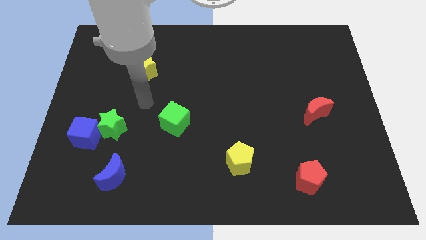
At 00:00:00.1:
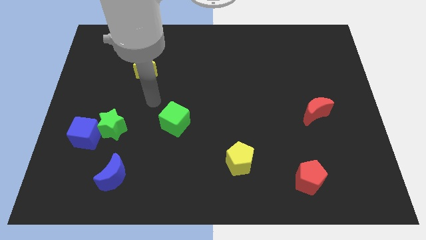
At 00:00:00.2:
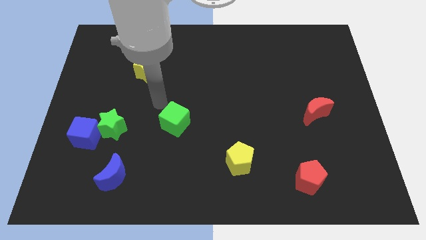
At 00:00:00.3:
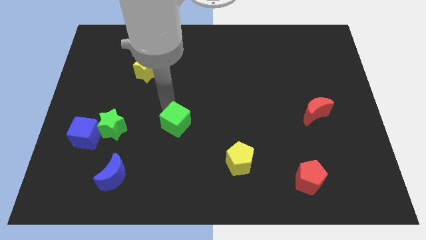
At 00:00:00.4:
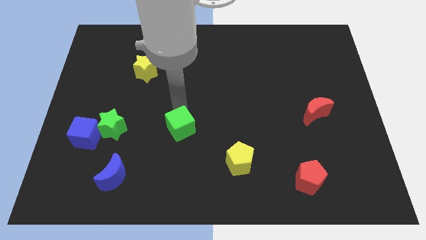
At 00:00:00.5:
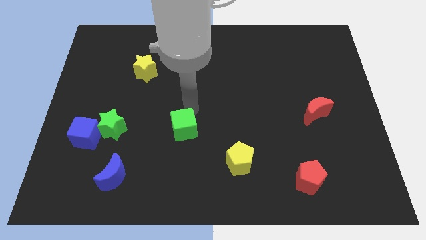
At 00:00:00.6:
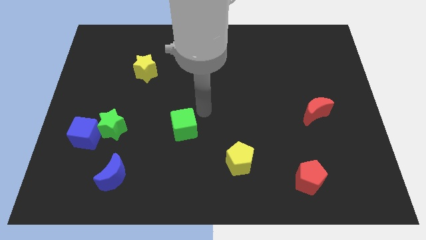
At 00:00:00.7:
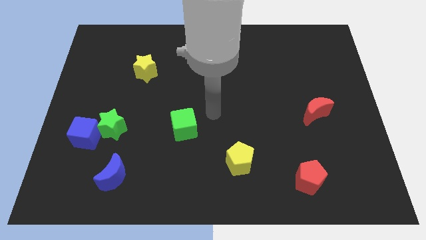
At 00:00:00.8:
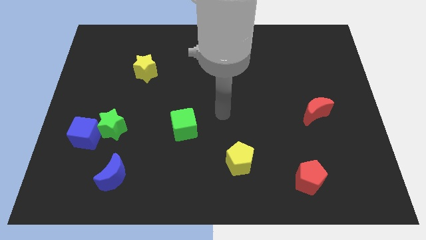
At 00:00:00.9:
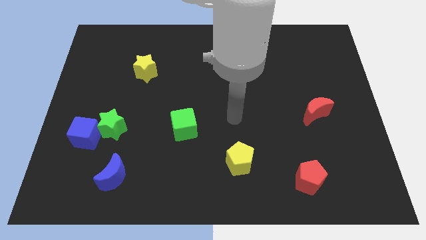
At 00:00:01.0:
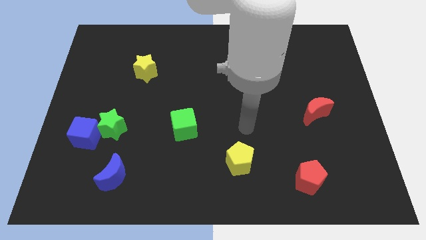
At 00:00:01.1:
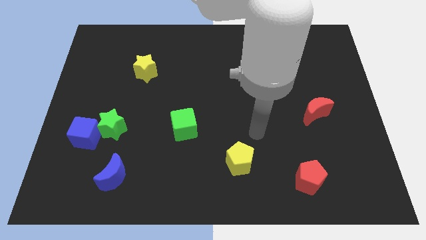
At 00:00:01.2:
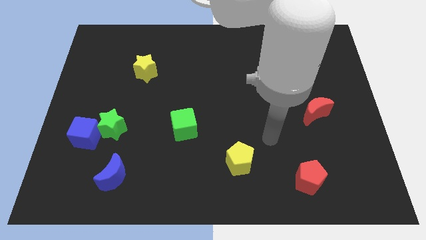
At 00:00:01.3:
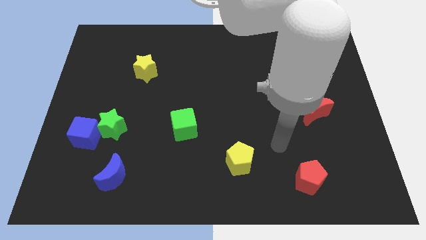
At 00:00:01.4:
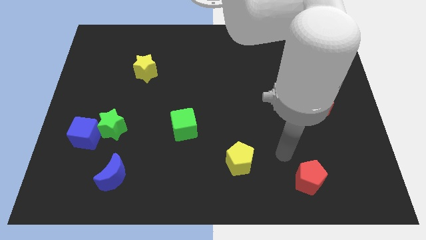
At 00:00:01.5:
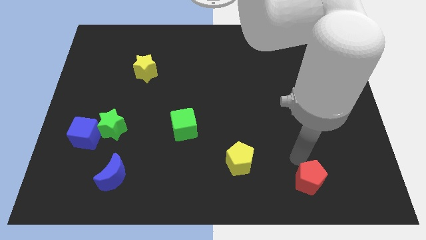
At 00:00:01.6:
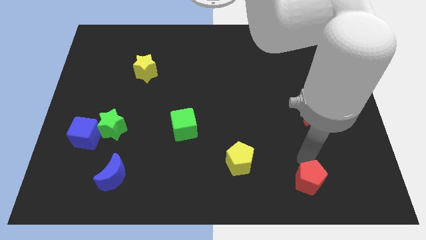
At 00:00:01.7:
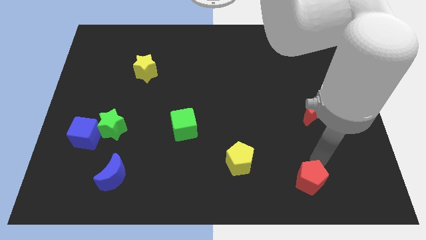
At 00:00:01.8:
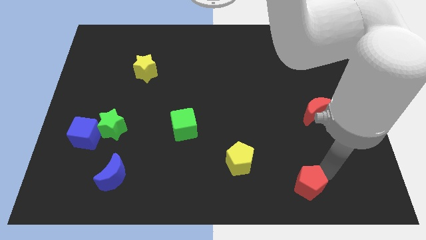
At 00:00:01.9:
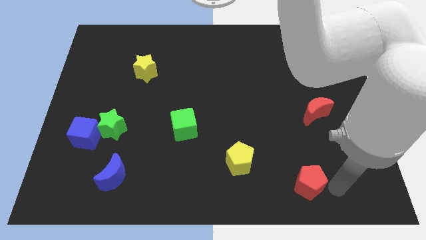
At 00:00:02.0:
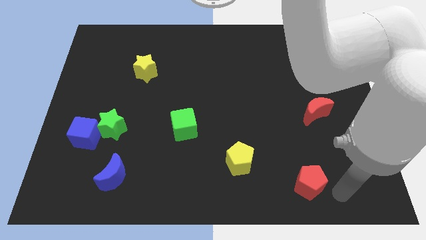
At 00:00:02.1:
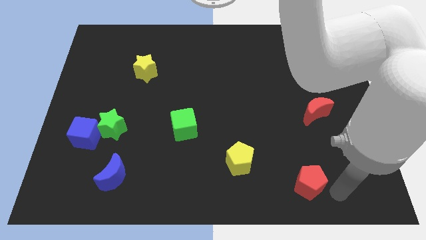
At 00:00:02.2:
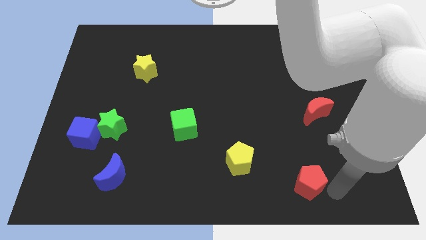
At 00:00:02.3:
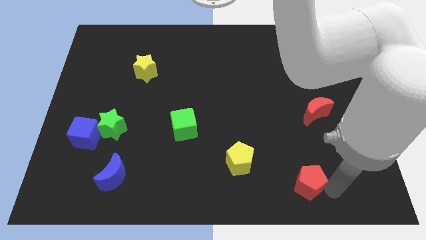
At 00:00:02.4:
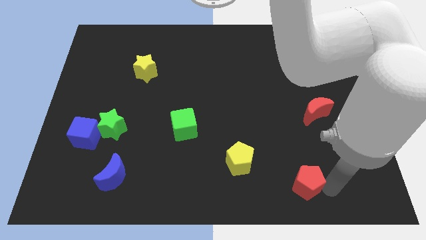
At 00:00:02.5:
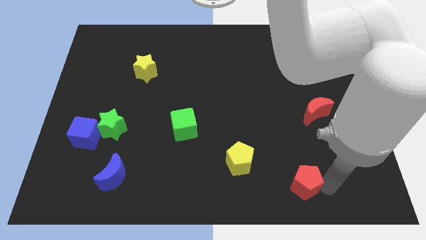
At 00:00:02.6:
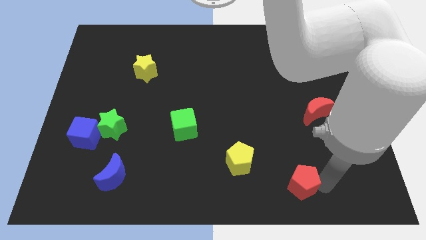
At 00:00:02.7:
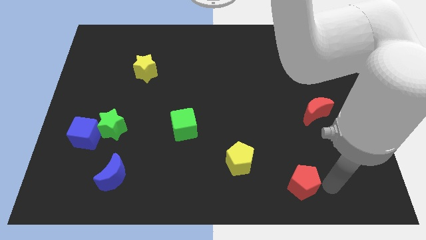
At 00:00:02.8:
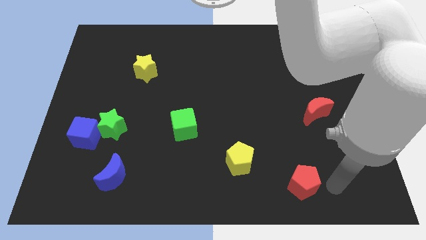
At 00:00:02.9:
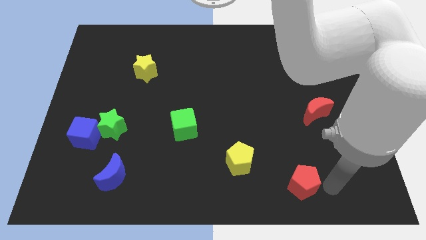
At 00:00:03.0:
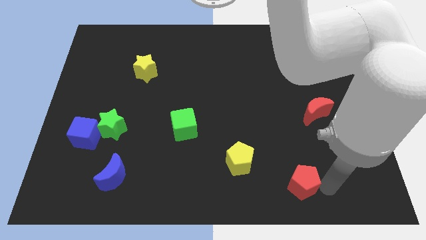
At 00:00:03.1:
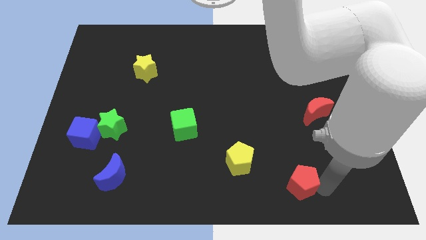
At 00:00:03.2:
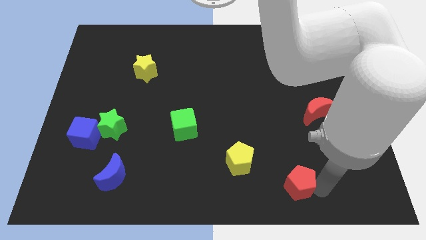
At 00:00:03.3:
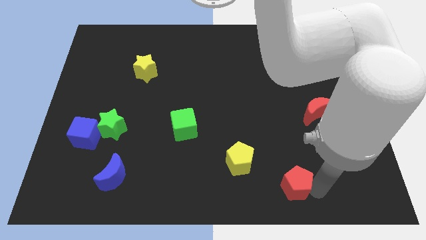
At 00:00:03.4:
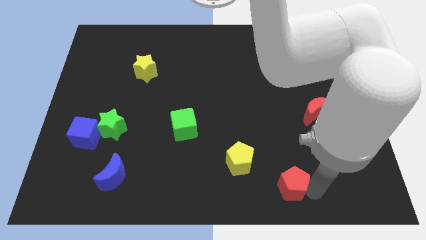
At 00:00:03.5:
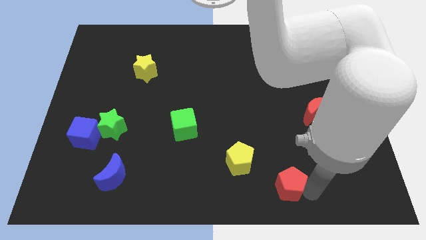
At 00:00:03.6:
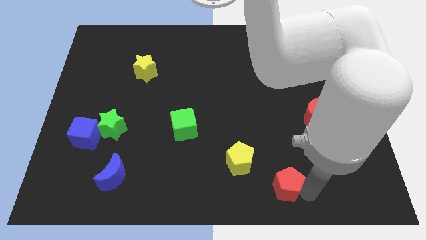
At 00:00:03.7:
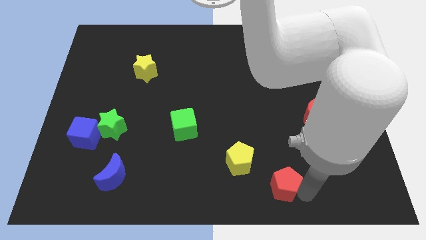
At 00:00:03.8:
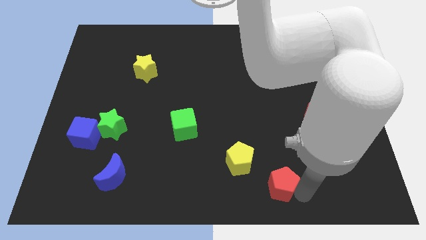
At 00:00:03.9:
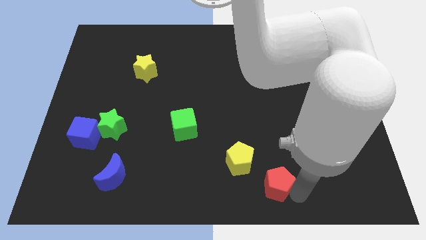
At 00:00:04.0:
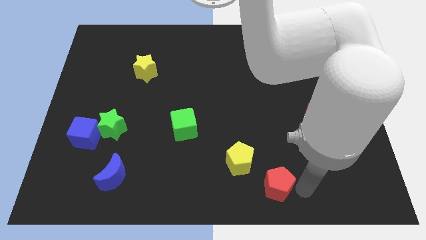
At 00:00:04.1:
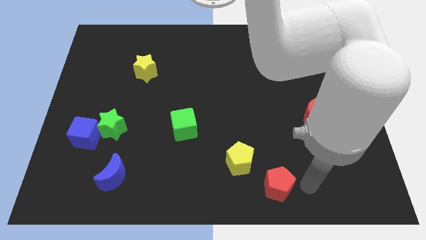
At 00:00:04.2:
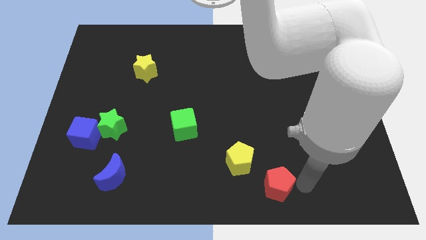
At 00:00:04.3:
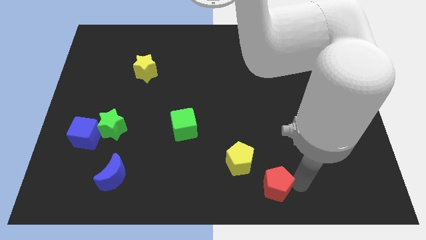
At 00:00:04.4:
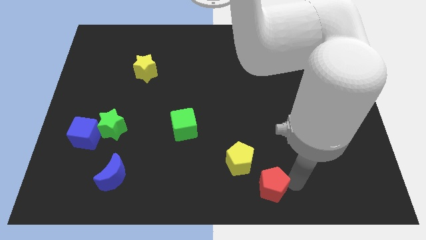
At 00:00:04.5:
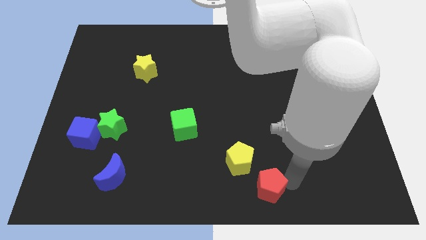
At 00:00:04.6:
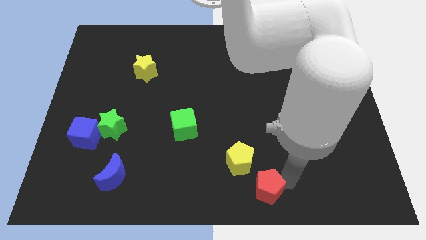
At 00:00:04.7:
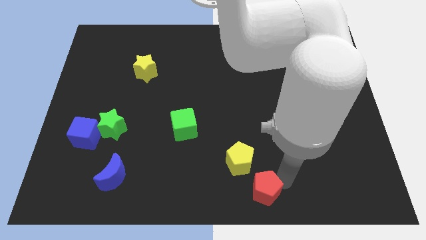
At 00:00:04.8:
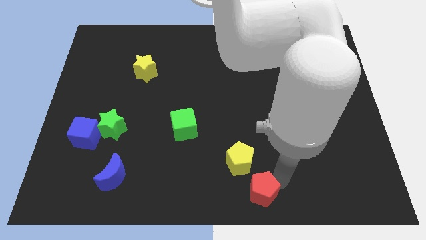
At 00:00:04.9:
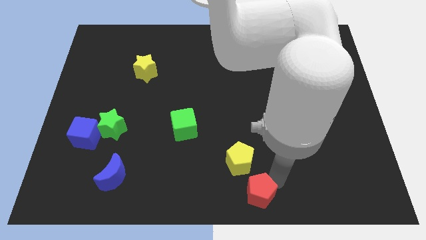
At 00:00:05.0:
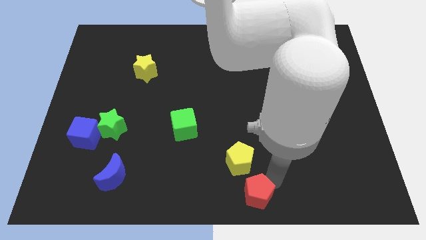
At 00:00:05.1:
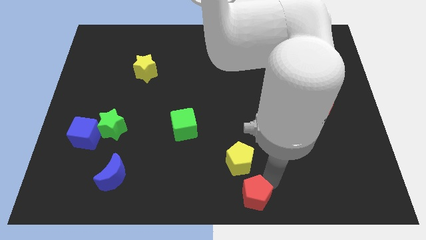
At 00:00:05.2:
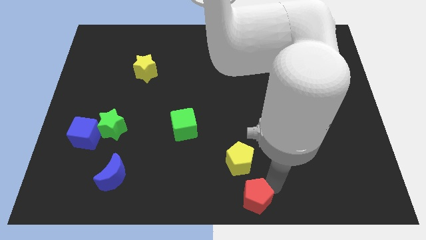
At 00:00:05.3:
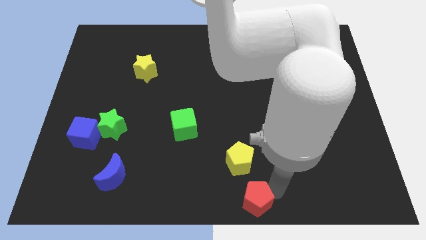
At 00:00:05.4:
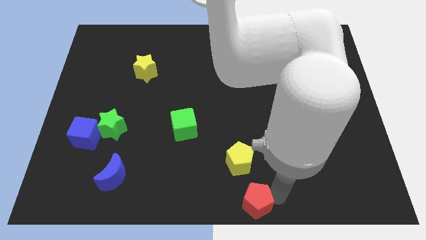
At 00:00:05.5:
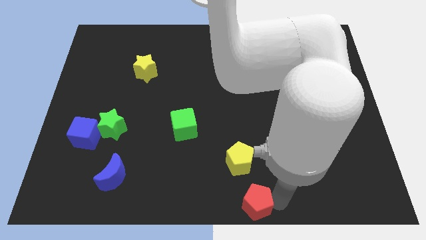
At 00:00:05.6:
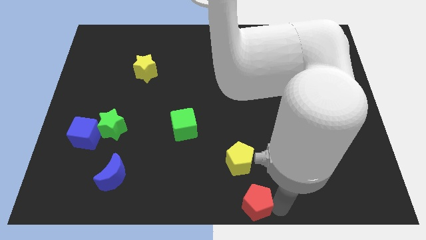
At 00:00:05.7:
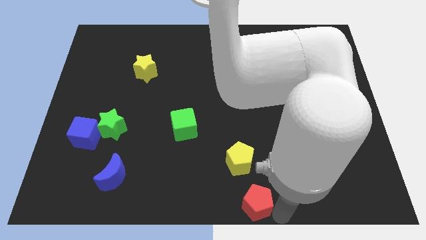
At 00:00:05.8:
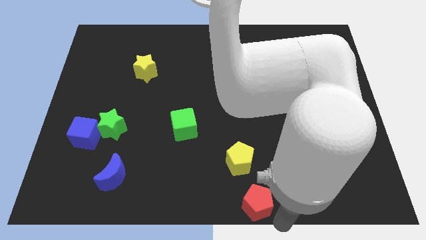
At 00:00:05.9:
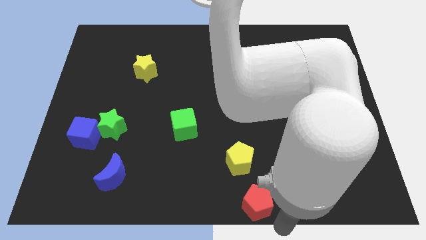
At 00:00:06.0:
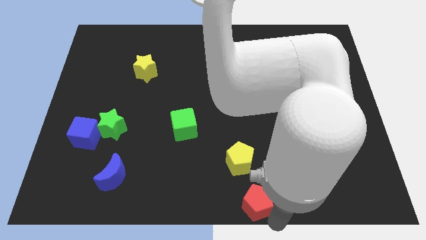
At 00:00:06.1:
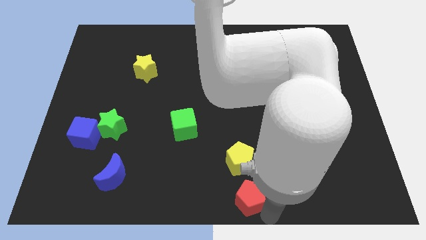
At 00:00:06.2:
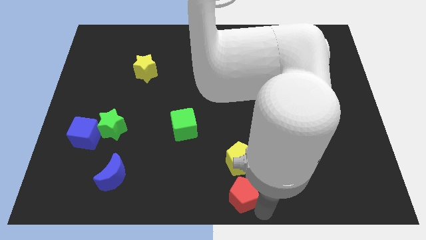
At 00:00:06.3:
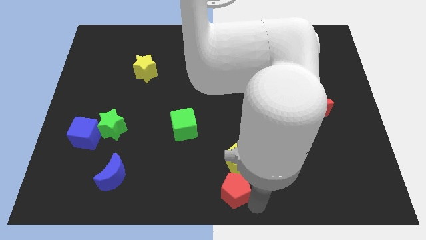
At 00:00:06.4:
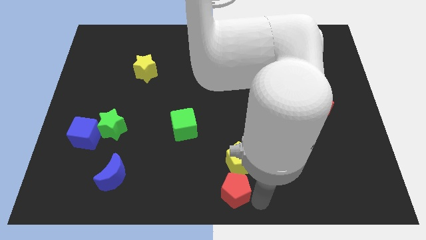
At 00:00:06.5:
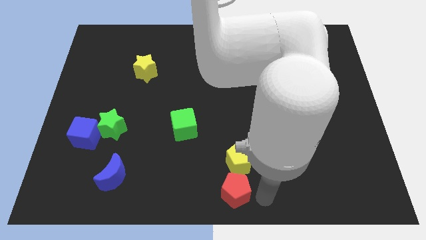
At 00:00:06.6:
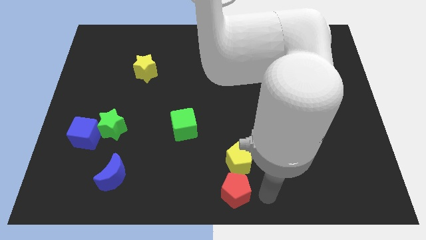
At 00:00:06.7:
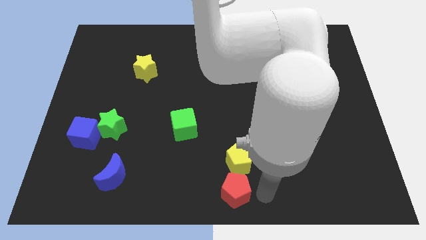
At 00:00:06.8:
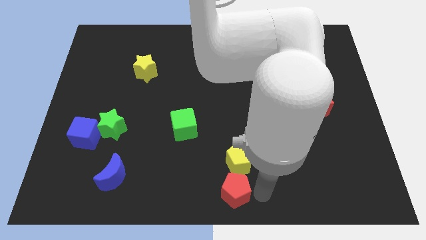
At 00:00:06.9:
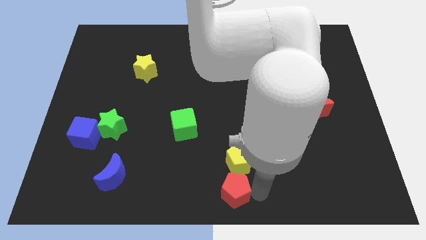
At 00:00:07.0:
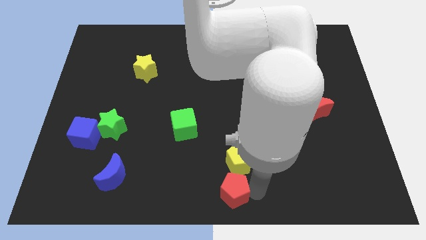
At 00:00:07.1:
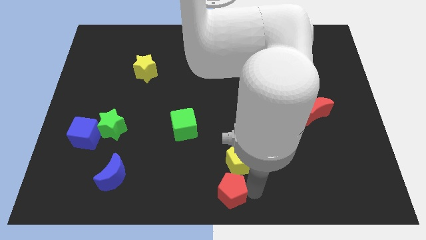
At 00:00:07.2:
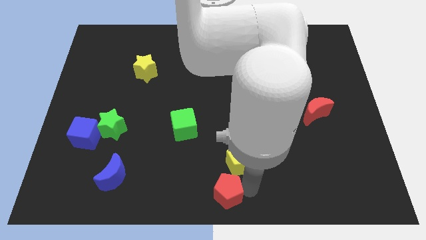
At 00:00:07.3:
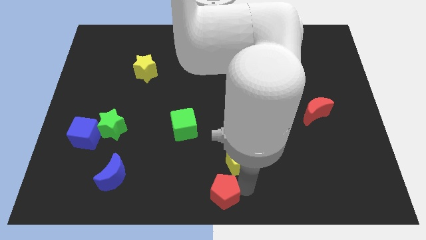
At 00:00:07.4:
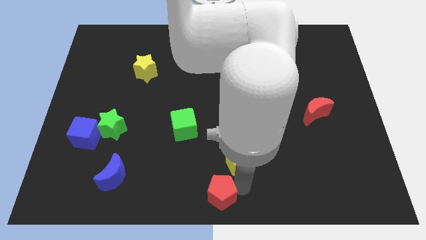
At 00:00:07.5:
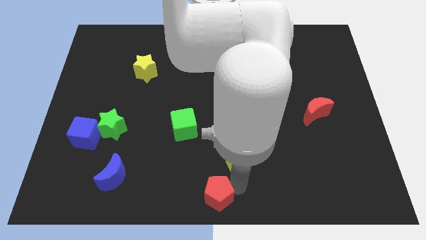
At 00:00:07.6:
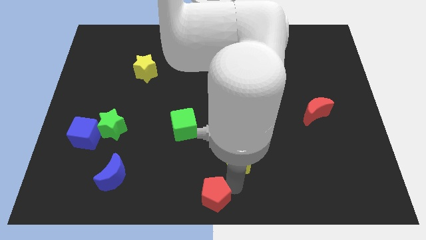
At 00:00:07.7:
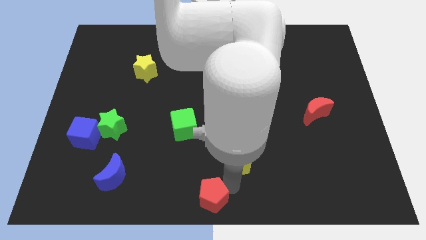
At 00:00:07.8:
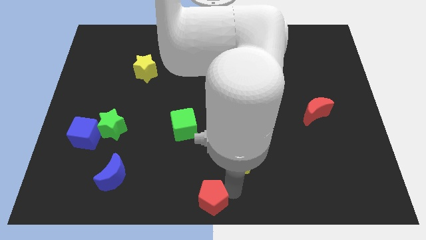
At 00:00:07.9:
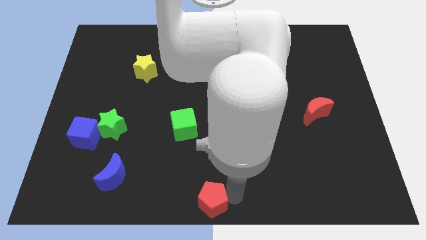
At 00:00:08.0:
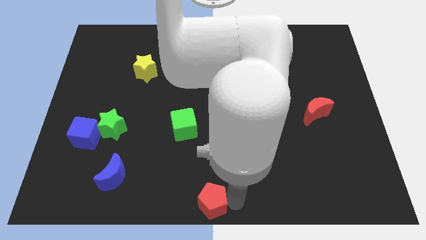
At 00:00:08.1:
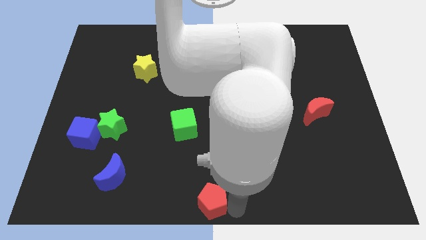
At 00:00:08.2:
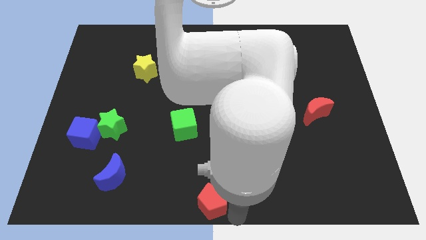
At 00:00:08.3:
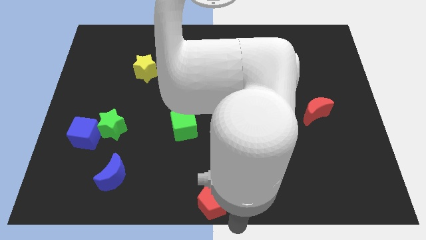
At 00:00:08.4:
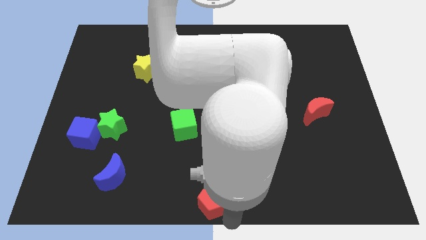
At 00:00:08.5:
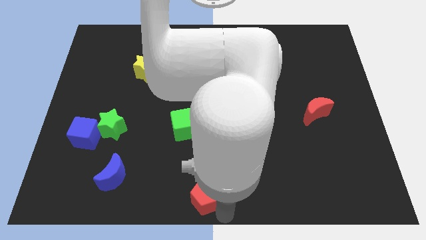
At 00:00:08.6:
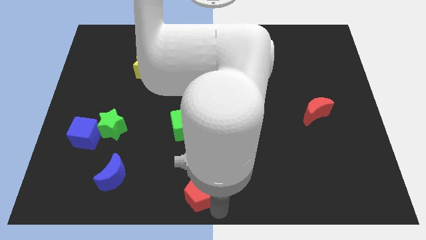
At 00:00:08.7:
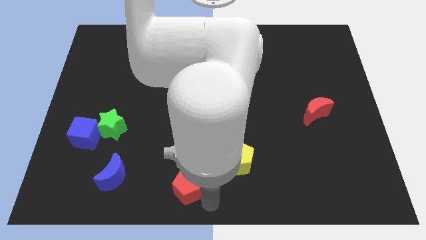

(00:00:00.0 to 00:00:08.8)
put the red pentagon to the right side of the blue moon
